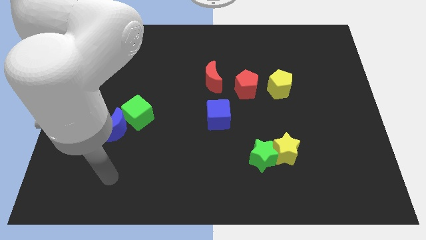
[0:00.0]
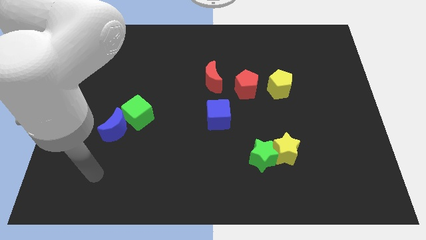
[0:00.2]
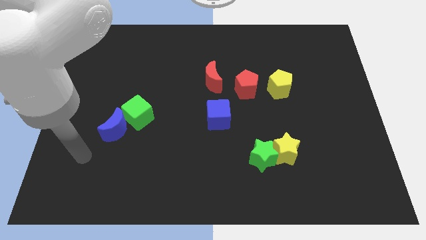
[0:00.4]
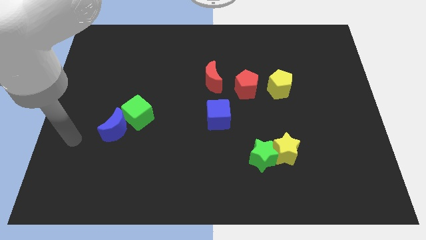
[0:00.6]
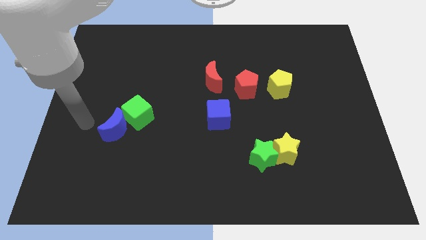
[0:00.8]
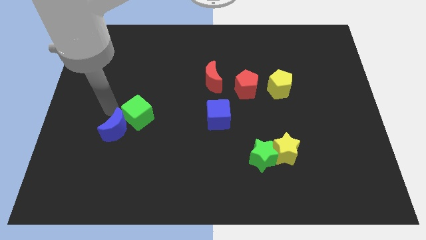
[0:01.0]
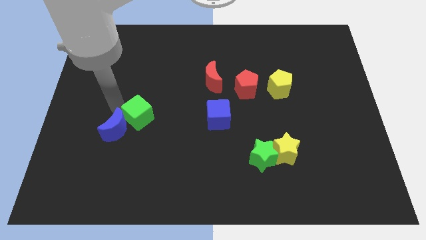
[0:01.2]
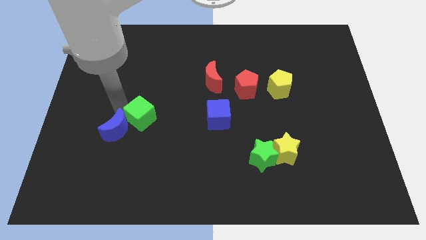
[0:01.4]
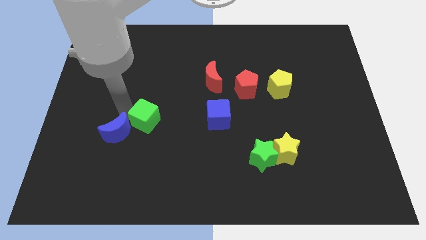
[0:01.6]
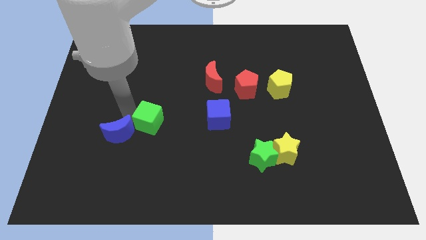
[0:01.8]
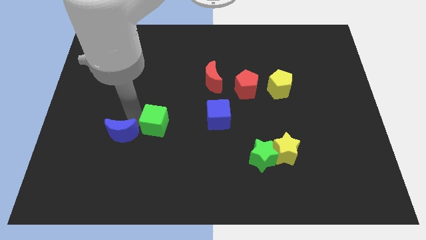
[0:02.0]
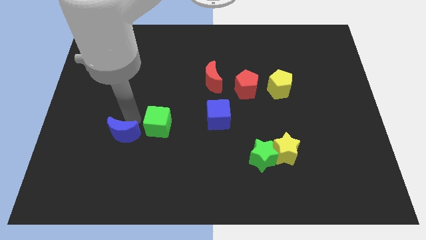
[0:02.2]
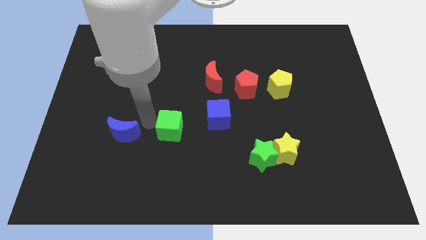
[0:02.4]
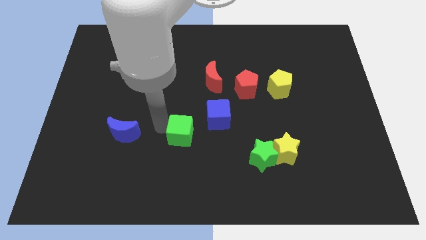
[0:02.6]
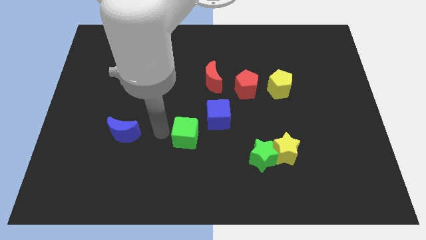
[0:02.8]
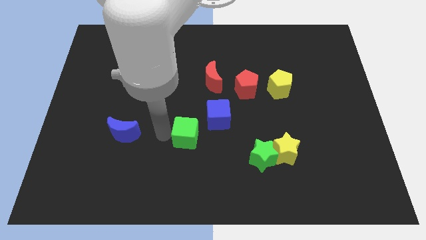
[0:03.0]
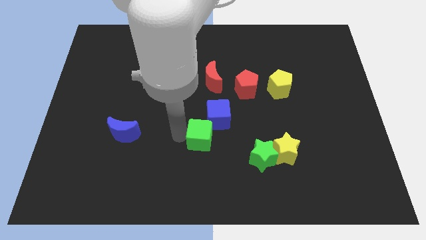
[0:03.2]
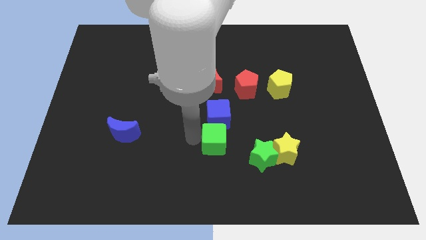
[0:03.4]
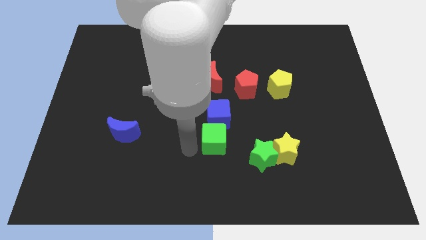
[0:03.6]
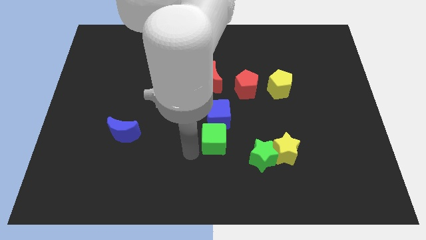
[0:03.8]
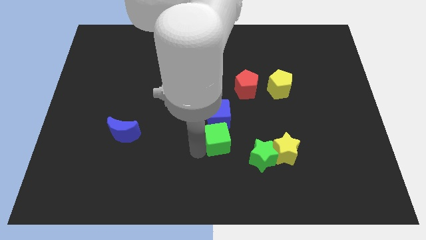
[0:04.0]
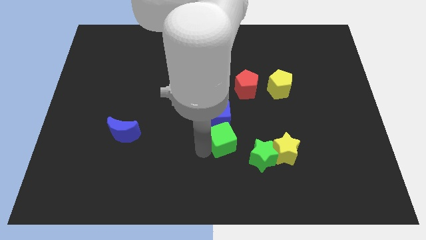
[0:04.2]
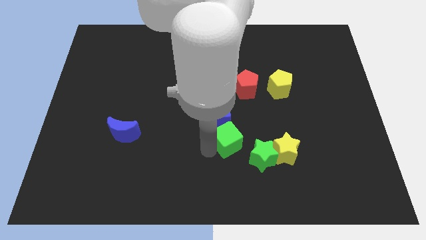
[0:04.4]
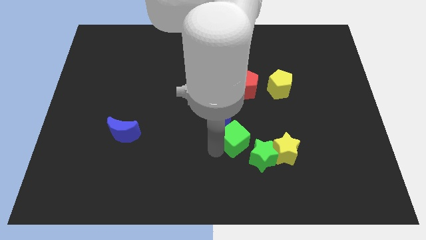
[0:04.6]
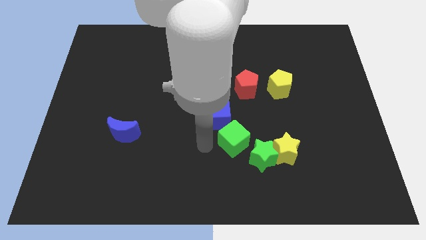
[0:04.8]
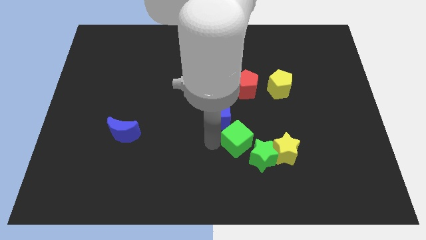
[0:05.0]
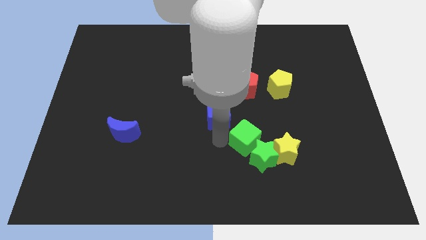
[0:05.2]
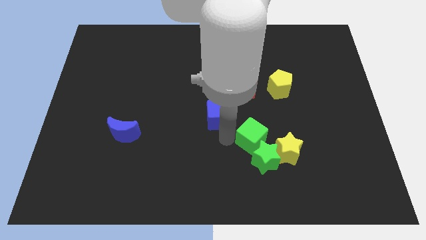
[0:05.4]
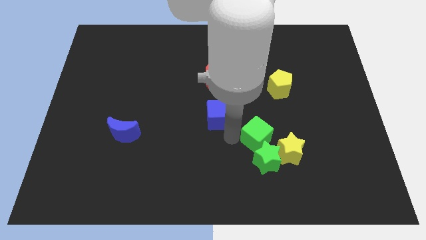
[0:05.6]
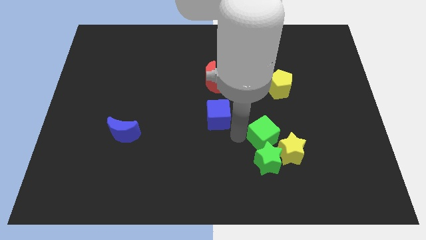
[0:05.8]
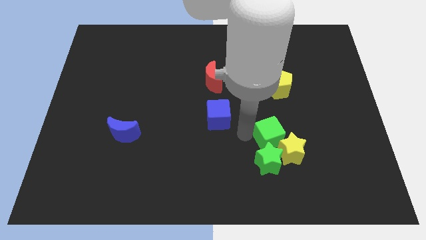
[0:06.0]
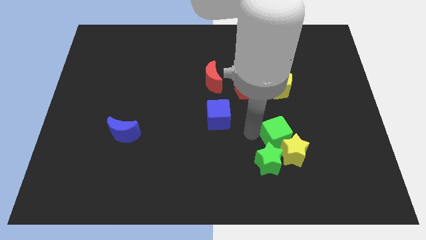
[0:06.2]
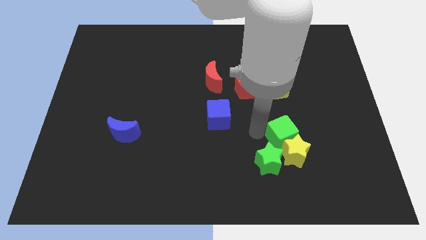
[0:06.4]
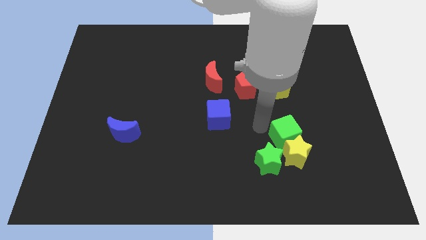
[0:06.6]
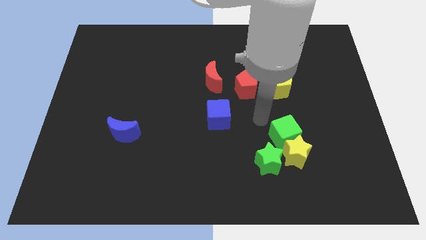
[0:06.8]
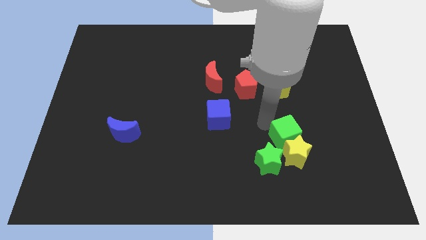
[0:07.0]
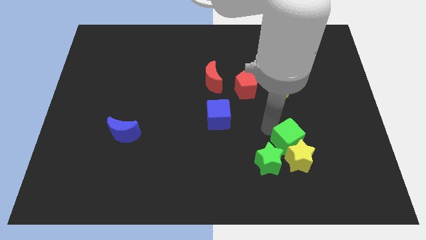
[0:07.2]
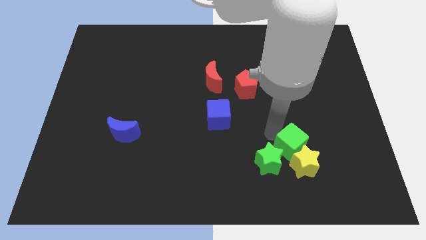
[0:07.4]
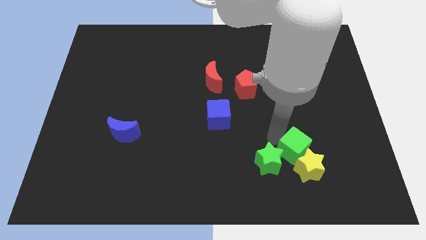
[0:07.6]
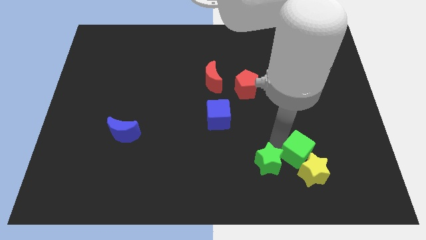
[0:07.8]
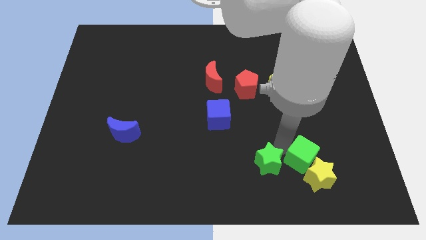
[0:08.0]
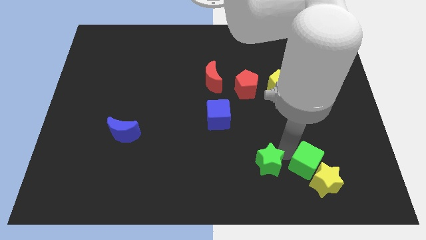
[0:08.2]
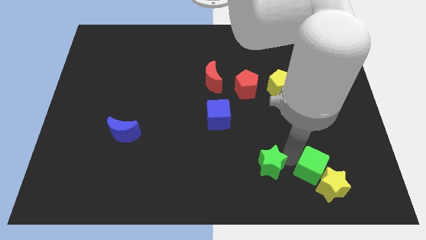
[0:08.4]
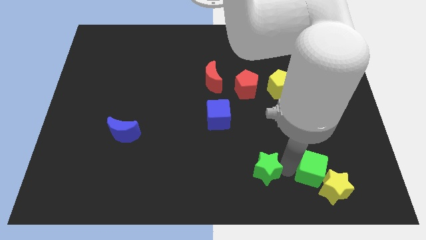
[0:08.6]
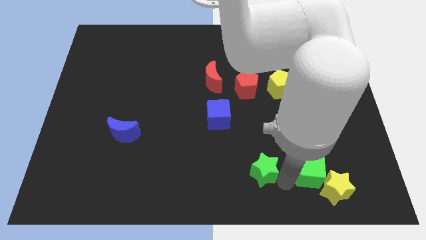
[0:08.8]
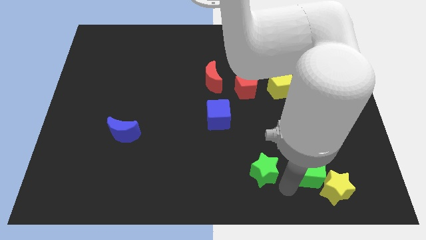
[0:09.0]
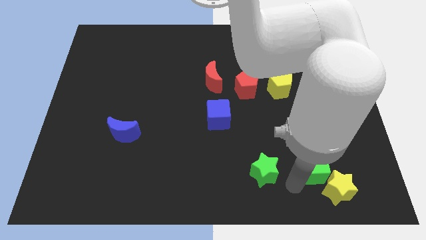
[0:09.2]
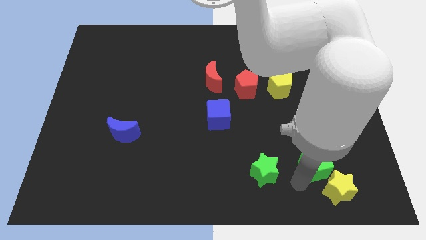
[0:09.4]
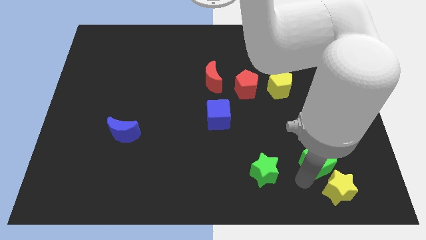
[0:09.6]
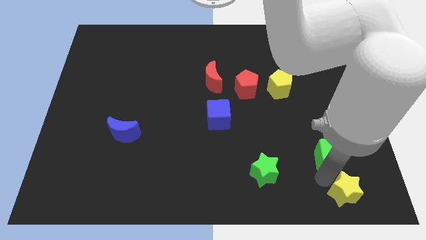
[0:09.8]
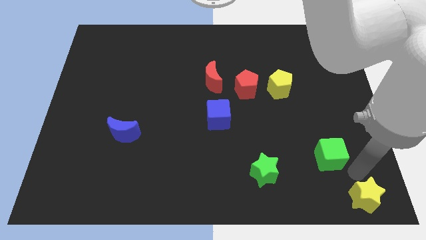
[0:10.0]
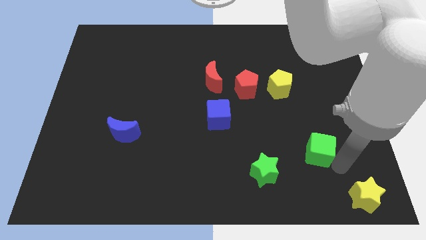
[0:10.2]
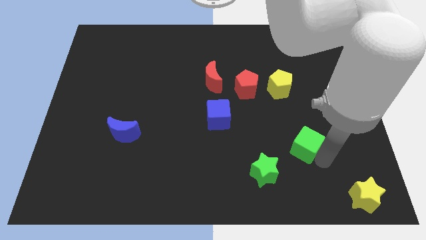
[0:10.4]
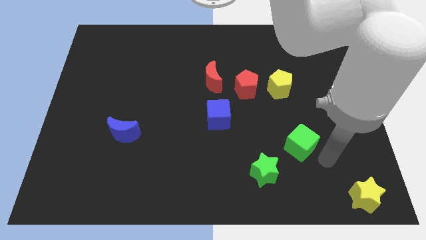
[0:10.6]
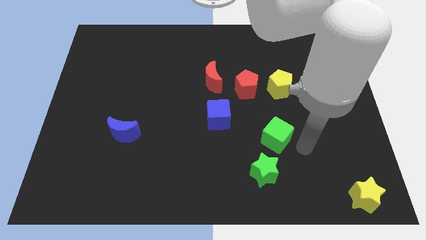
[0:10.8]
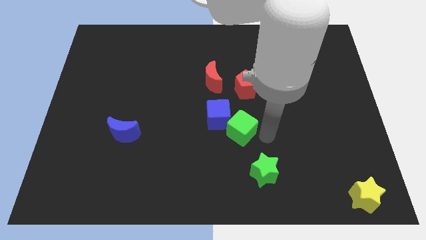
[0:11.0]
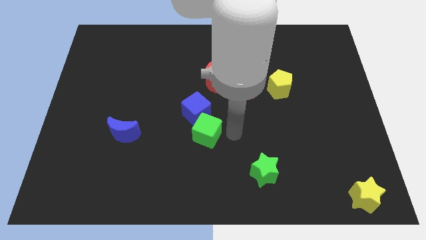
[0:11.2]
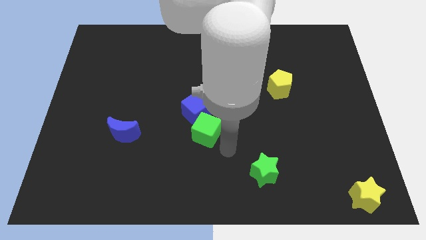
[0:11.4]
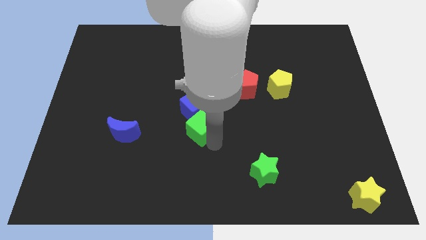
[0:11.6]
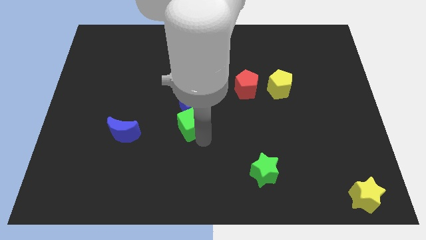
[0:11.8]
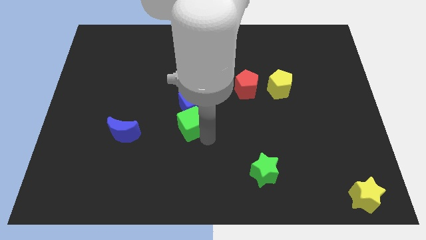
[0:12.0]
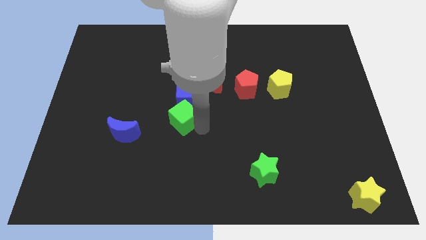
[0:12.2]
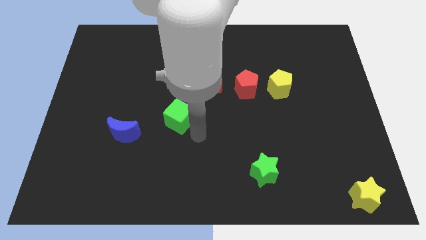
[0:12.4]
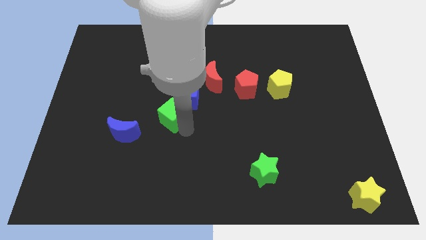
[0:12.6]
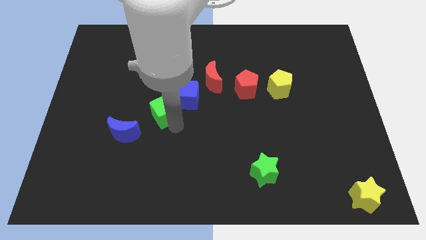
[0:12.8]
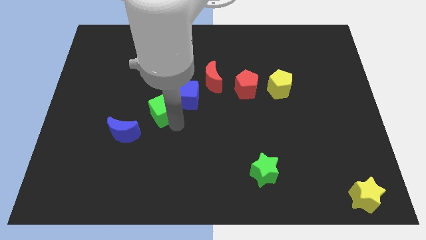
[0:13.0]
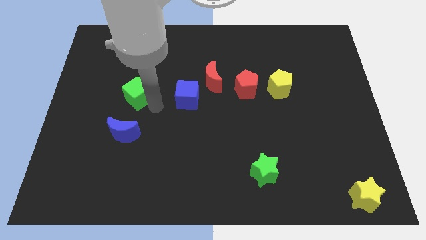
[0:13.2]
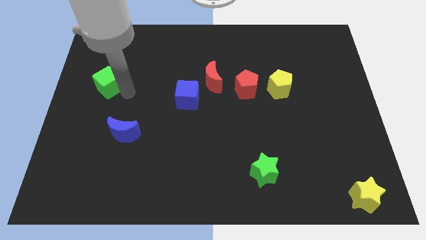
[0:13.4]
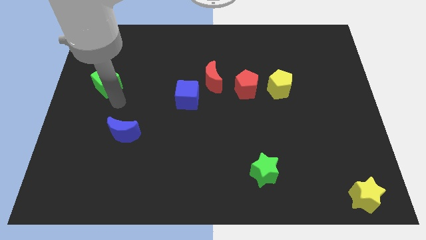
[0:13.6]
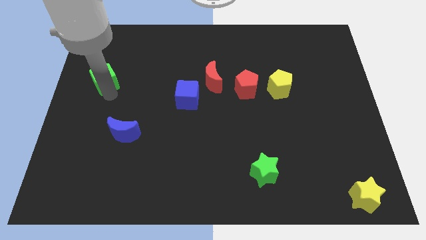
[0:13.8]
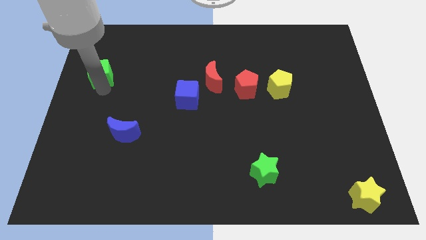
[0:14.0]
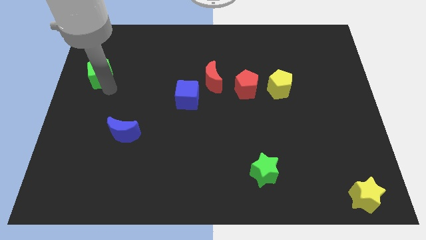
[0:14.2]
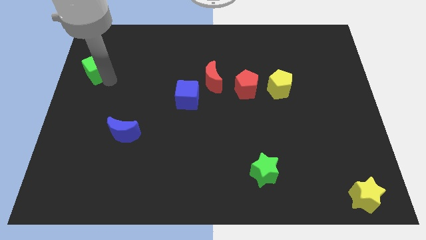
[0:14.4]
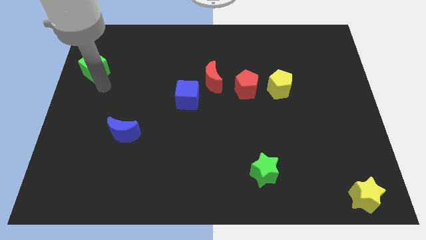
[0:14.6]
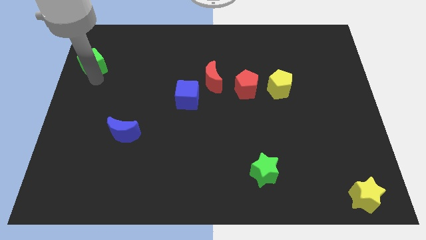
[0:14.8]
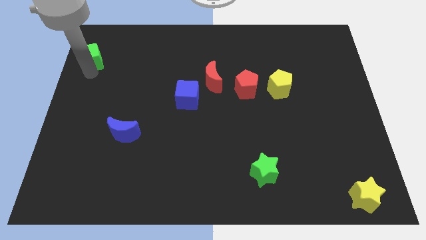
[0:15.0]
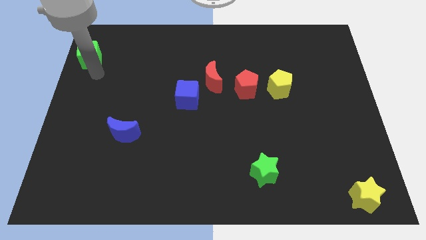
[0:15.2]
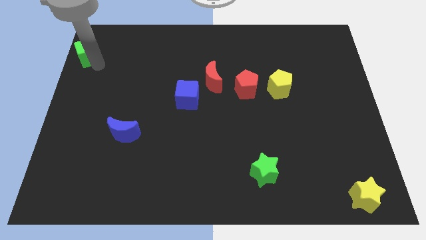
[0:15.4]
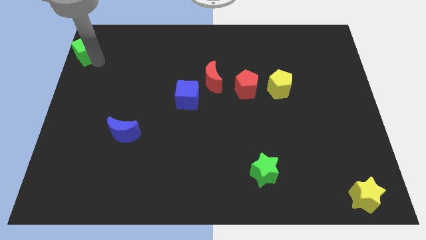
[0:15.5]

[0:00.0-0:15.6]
push the green cube to the top left
